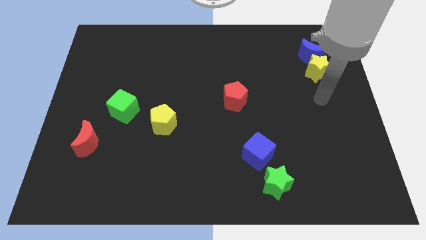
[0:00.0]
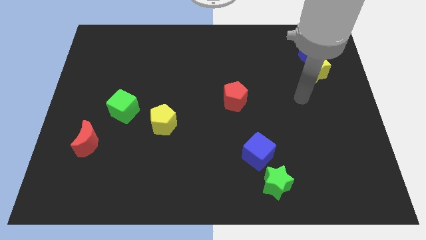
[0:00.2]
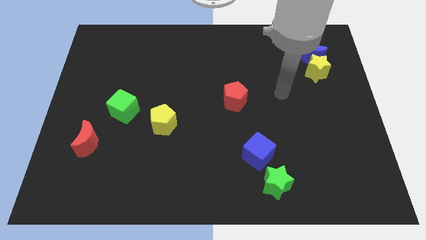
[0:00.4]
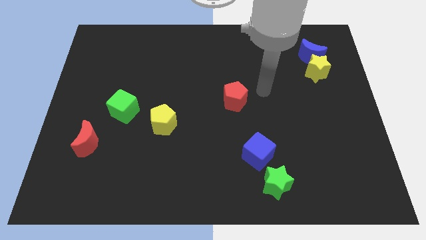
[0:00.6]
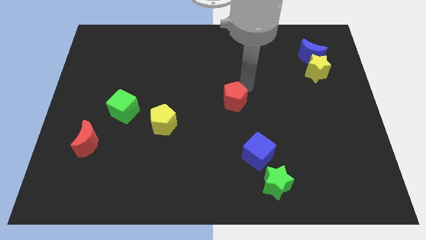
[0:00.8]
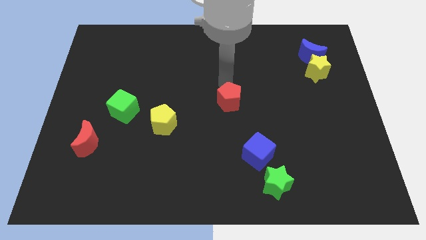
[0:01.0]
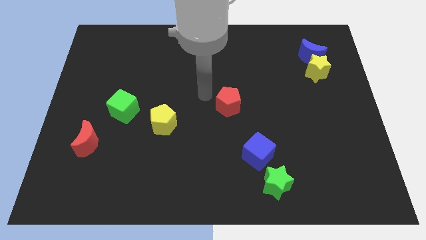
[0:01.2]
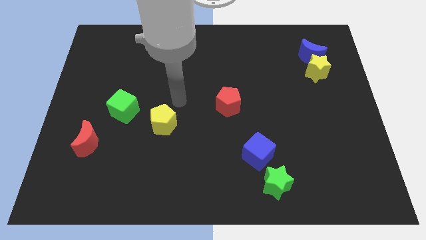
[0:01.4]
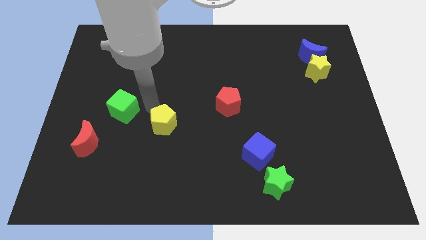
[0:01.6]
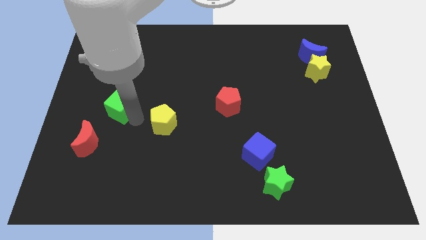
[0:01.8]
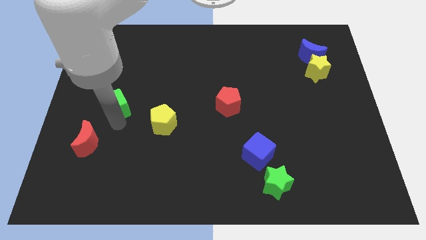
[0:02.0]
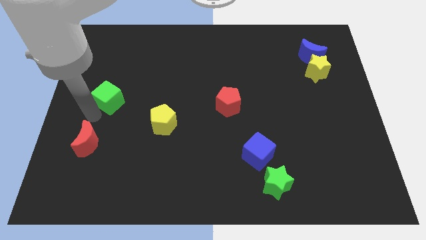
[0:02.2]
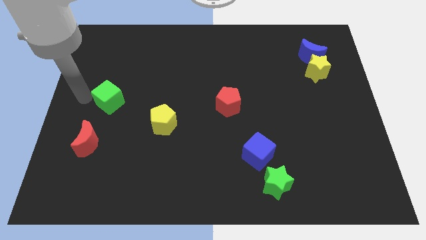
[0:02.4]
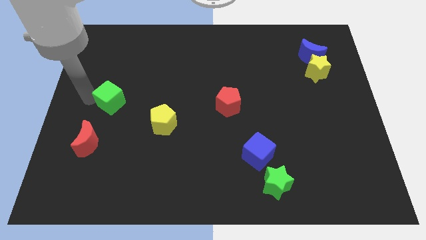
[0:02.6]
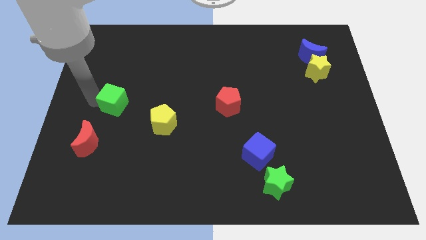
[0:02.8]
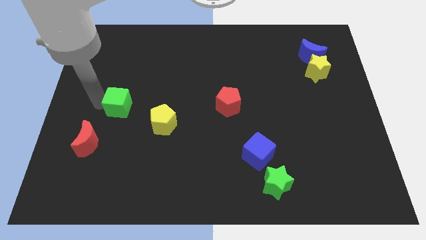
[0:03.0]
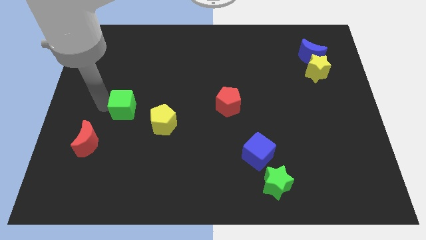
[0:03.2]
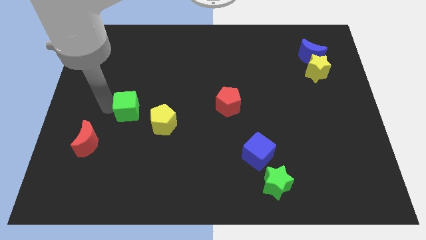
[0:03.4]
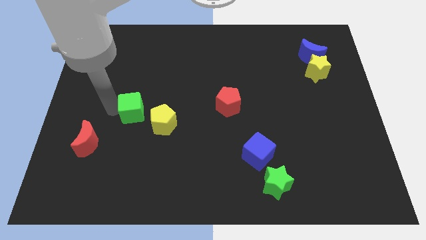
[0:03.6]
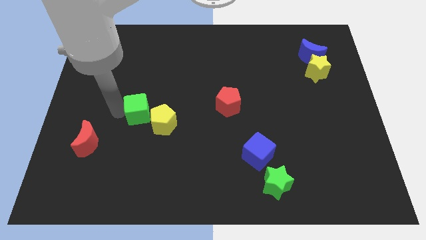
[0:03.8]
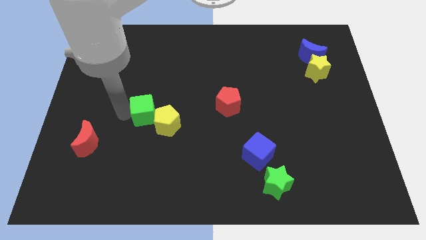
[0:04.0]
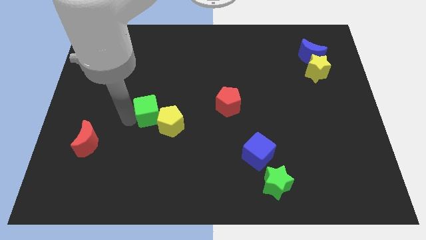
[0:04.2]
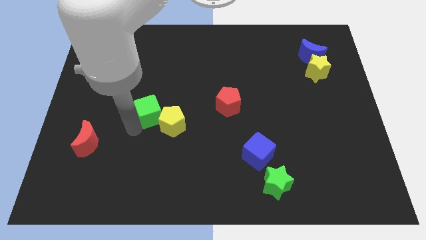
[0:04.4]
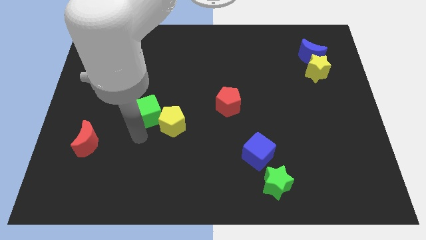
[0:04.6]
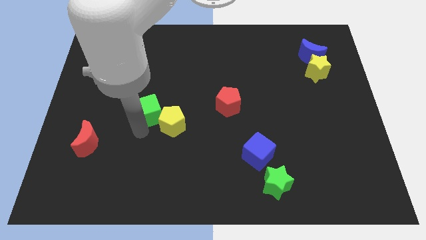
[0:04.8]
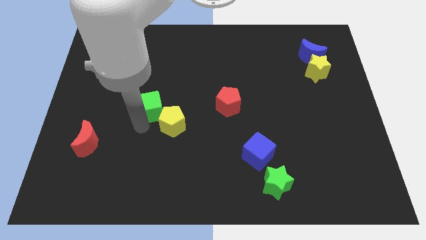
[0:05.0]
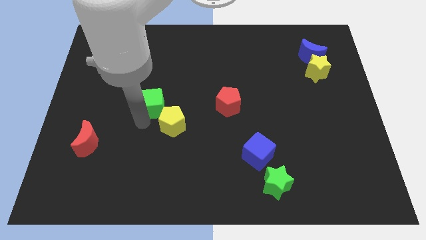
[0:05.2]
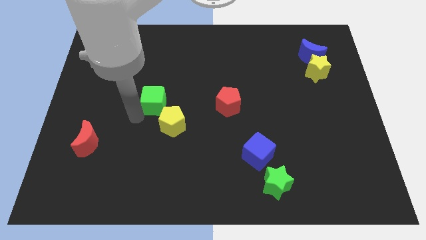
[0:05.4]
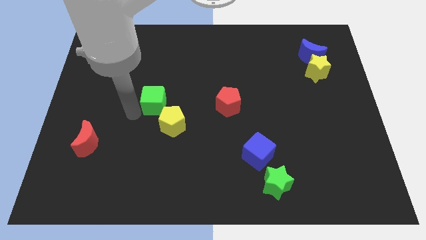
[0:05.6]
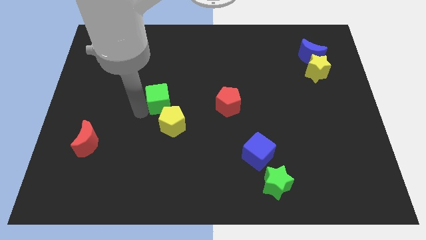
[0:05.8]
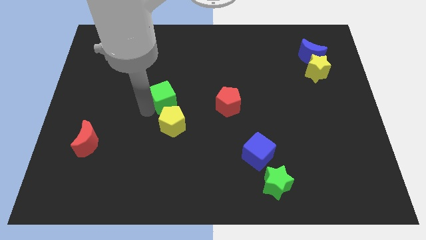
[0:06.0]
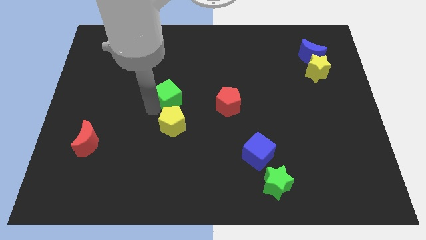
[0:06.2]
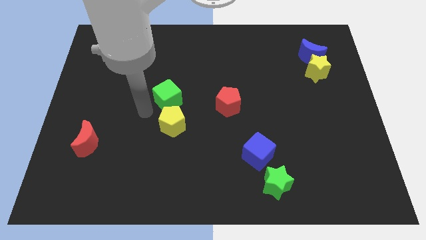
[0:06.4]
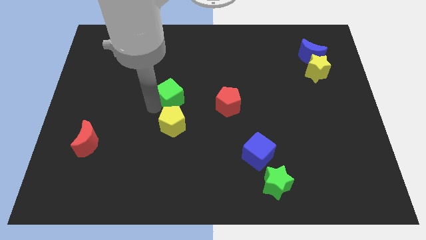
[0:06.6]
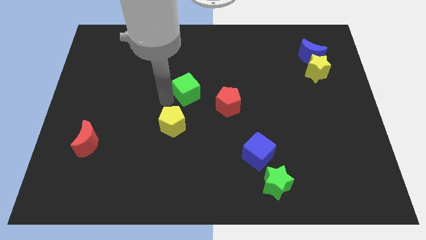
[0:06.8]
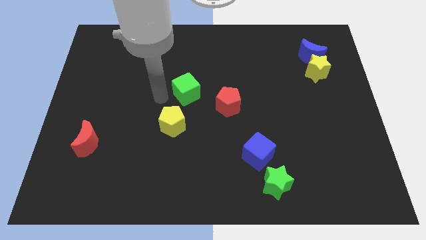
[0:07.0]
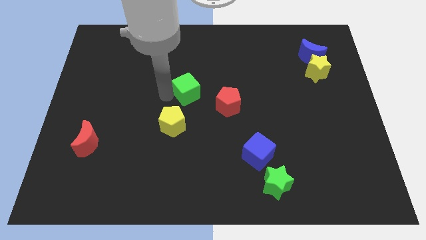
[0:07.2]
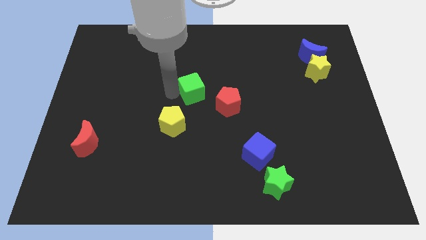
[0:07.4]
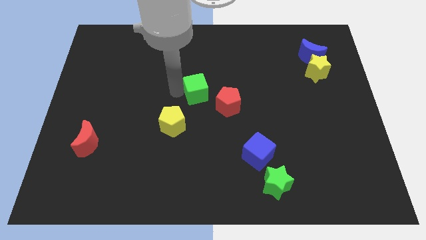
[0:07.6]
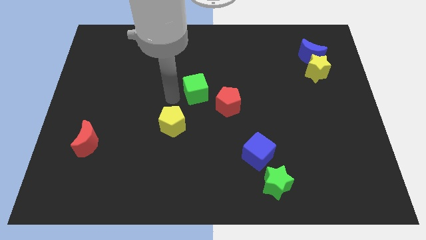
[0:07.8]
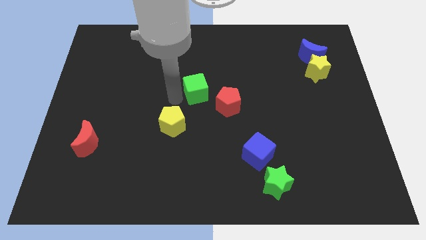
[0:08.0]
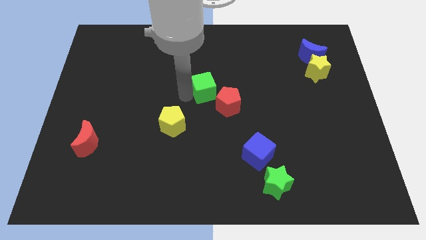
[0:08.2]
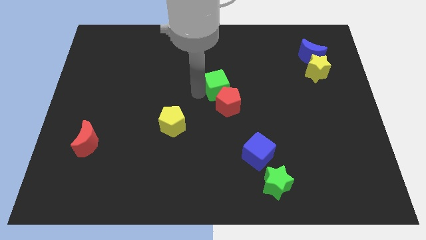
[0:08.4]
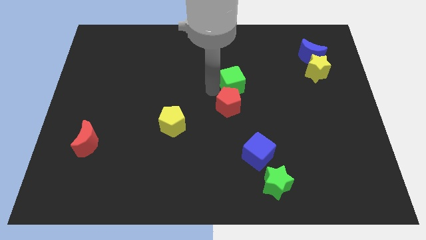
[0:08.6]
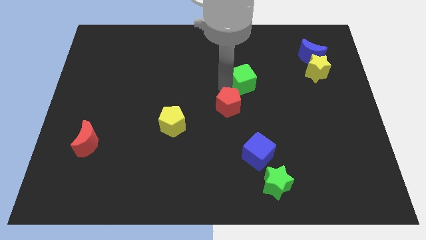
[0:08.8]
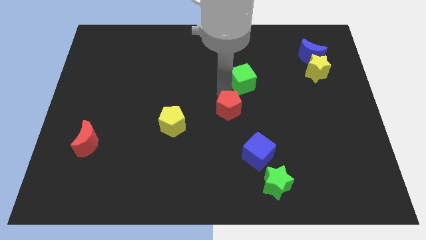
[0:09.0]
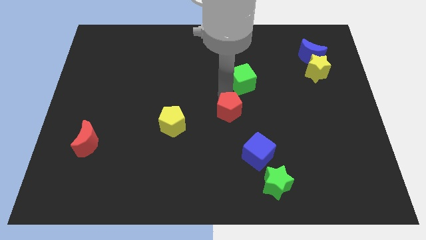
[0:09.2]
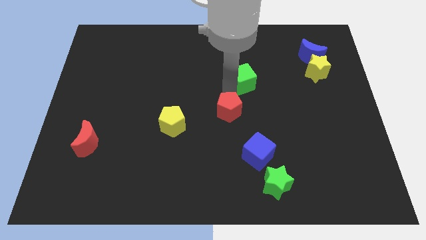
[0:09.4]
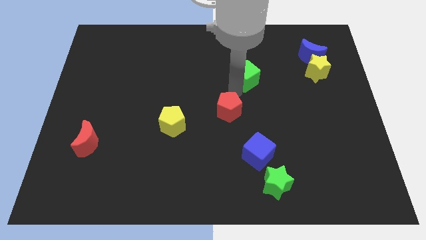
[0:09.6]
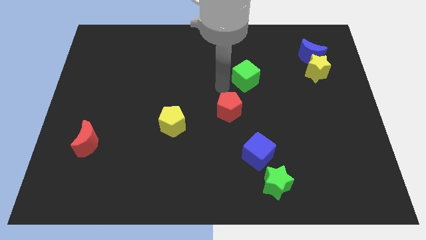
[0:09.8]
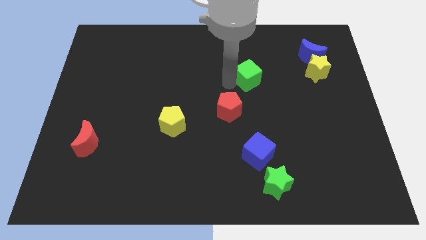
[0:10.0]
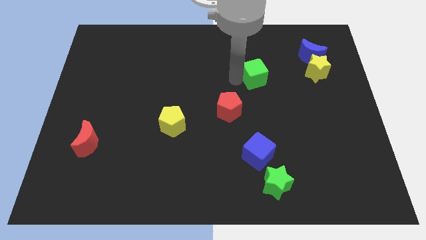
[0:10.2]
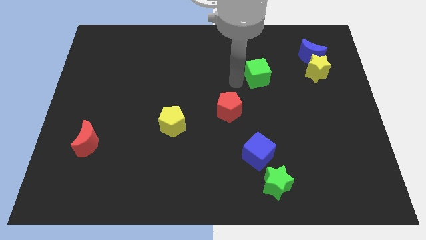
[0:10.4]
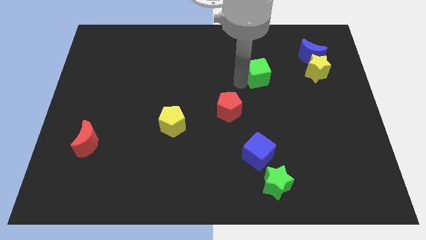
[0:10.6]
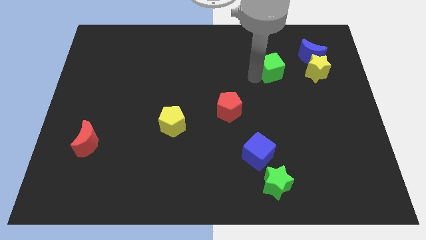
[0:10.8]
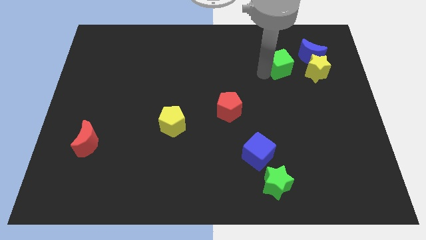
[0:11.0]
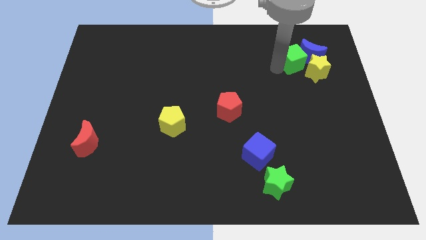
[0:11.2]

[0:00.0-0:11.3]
slide the green cube next to the blue moon

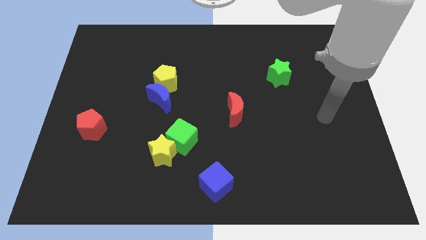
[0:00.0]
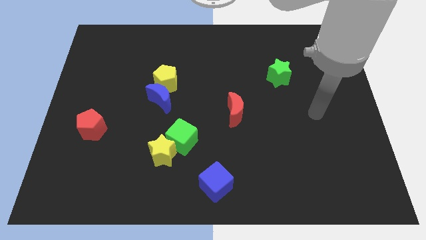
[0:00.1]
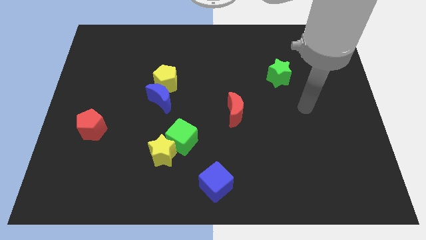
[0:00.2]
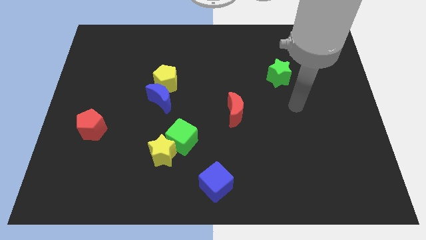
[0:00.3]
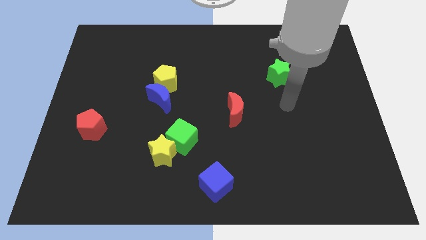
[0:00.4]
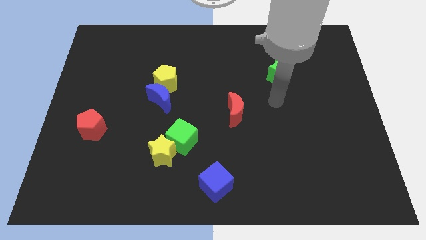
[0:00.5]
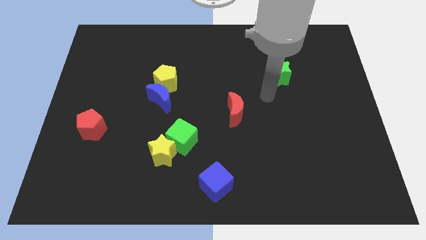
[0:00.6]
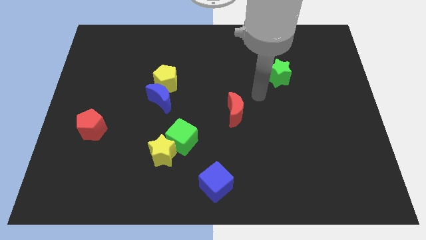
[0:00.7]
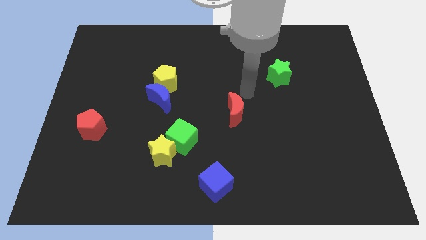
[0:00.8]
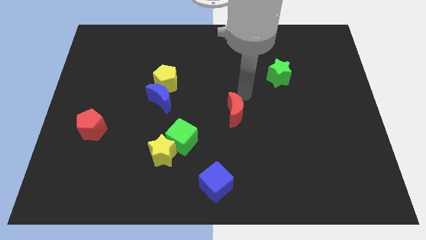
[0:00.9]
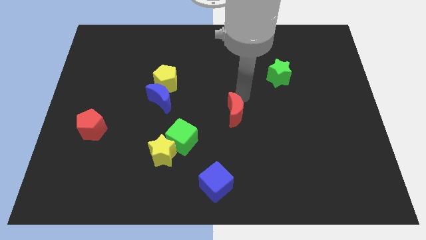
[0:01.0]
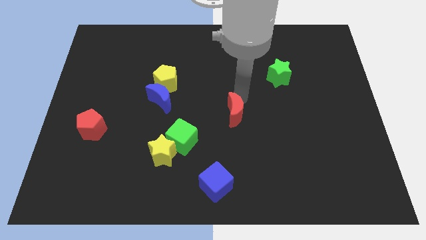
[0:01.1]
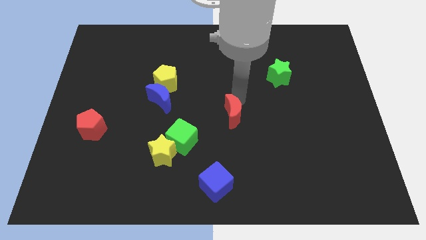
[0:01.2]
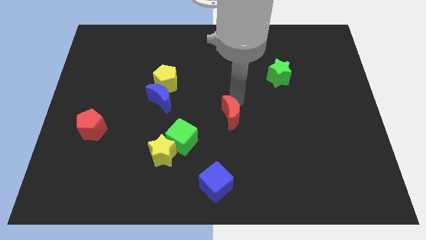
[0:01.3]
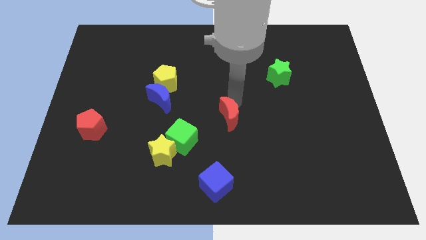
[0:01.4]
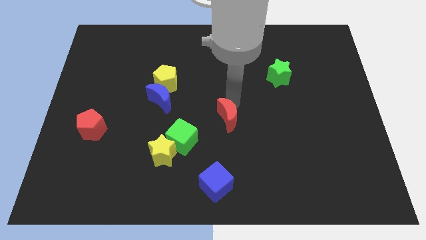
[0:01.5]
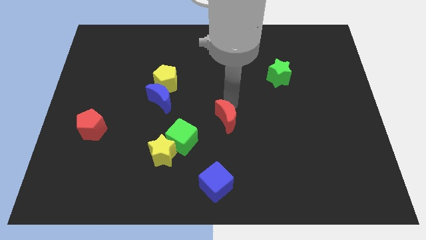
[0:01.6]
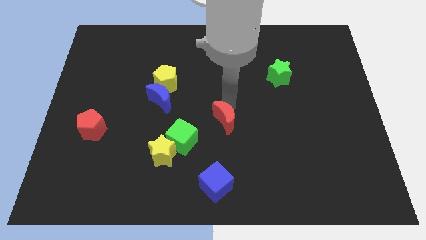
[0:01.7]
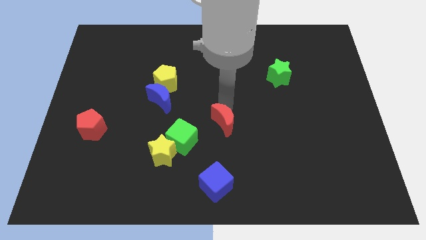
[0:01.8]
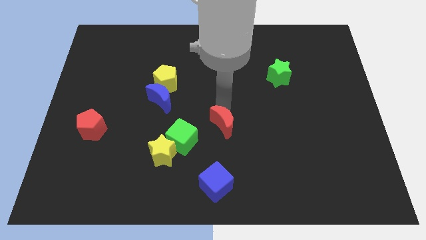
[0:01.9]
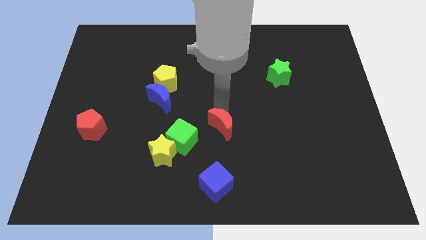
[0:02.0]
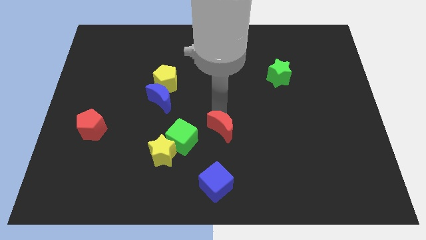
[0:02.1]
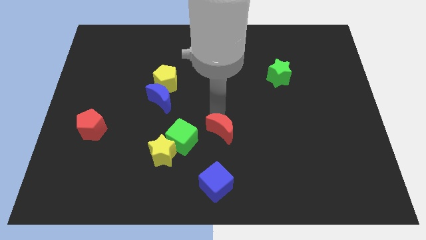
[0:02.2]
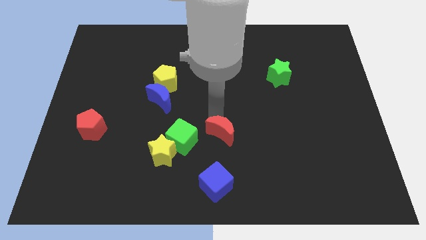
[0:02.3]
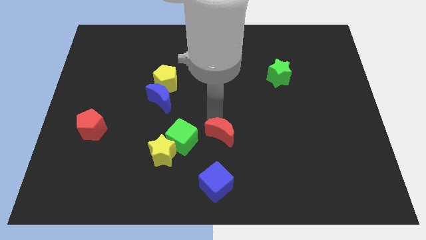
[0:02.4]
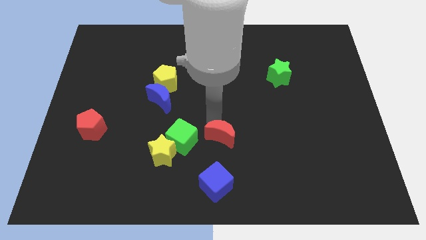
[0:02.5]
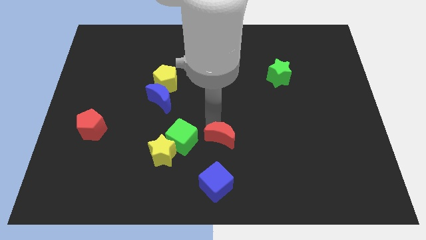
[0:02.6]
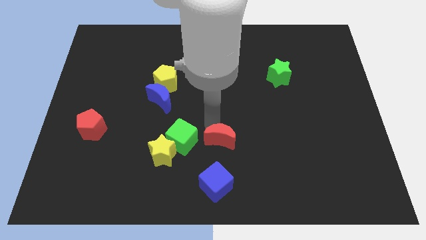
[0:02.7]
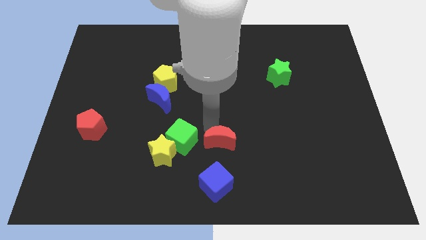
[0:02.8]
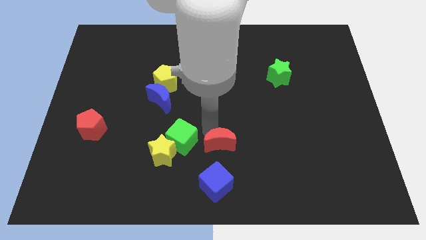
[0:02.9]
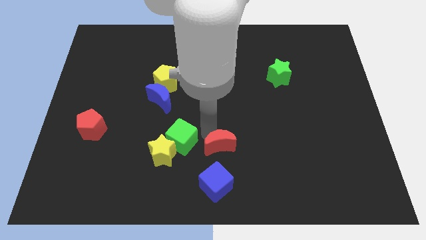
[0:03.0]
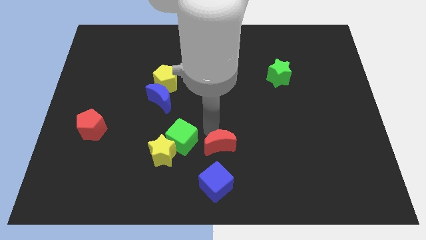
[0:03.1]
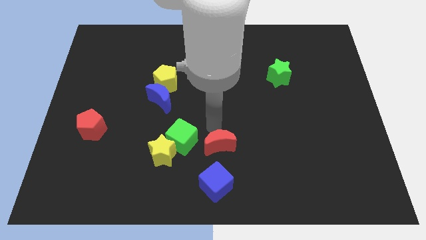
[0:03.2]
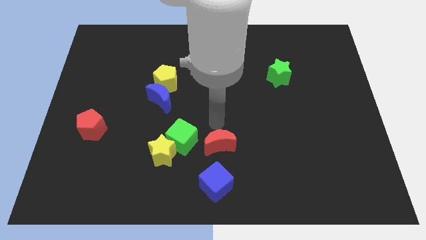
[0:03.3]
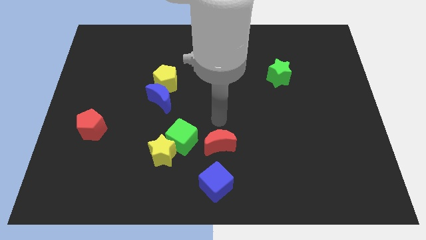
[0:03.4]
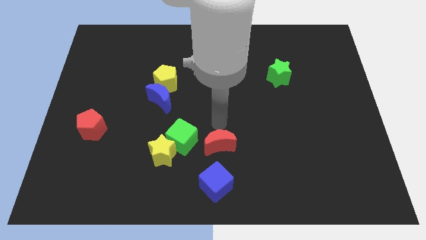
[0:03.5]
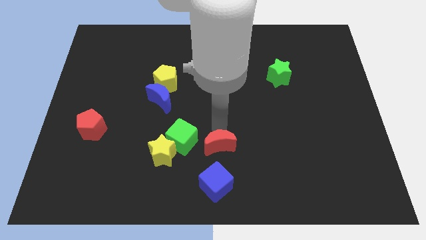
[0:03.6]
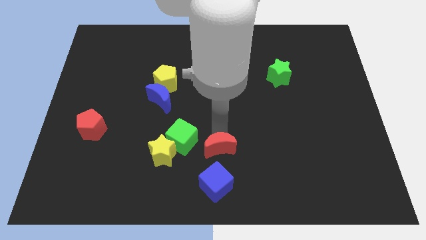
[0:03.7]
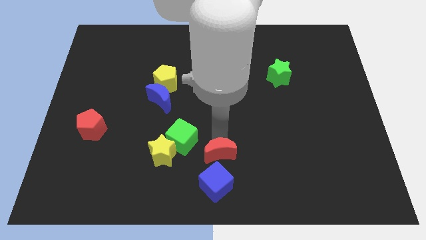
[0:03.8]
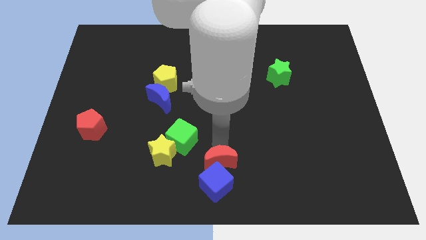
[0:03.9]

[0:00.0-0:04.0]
slide the red moon to the blue cube
